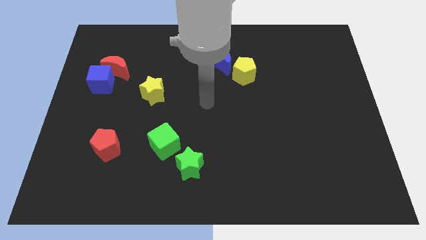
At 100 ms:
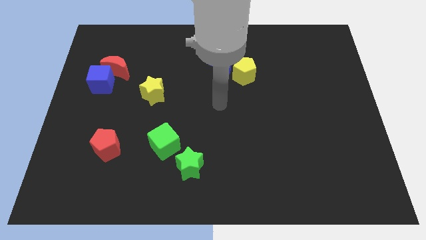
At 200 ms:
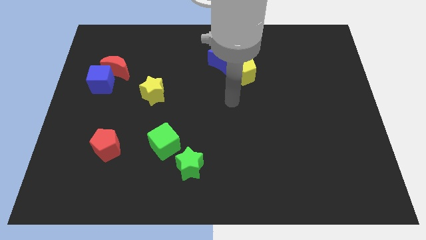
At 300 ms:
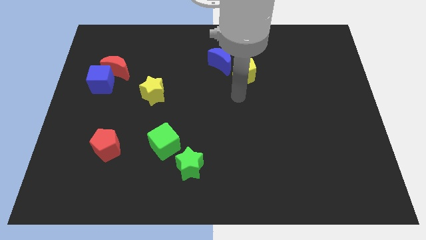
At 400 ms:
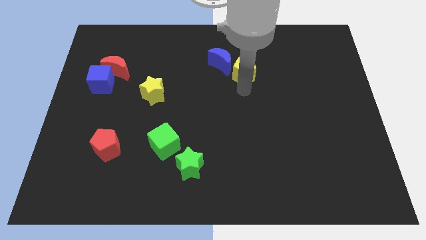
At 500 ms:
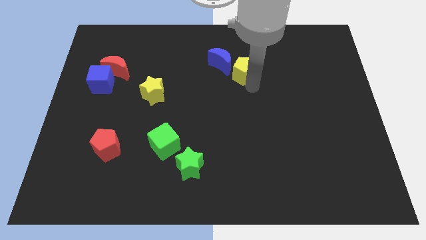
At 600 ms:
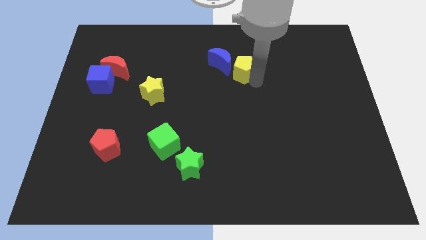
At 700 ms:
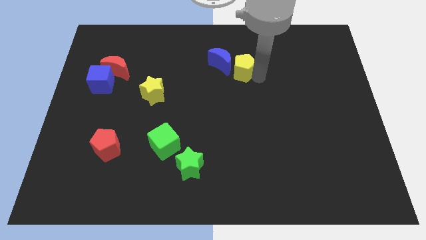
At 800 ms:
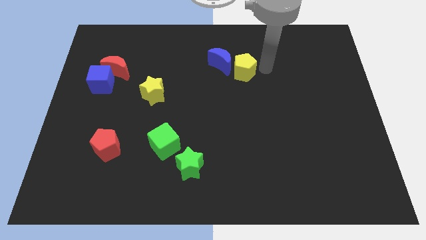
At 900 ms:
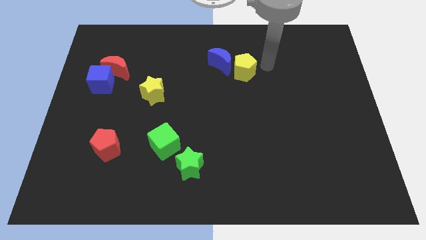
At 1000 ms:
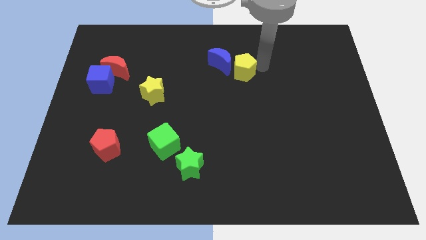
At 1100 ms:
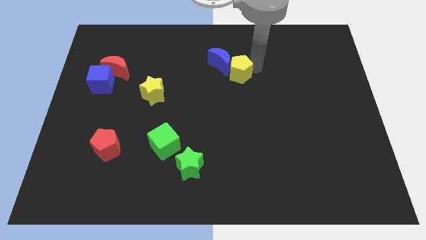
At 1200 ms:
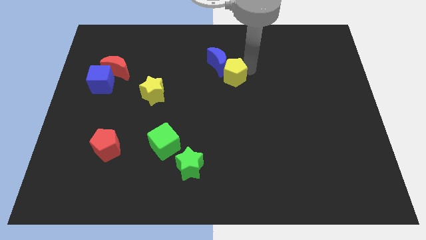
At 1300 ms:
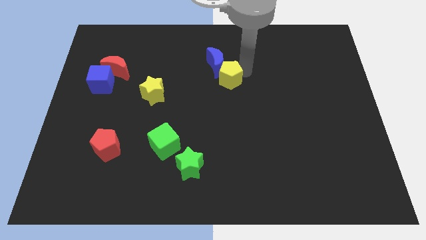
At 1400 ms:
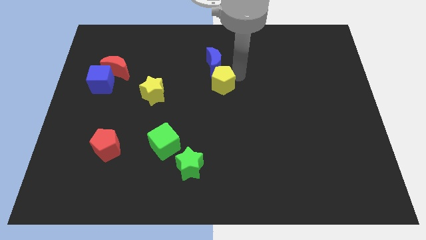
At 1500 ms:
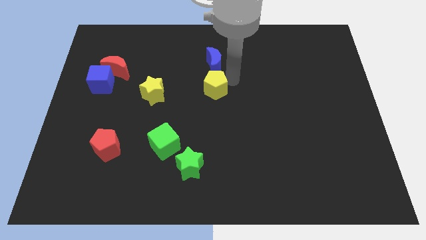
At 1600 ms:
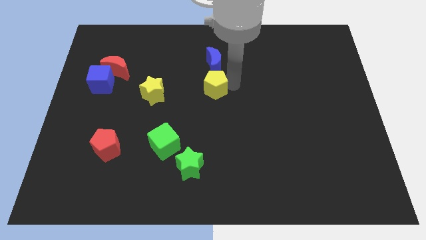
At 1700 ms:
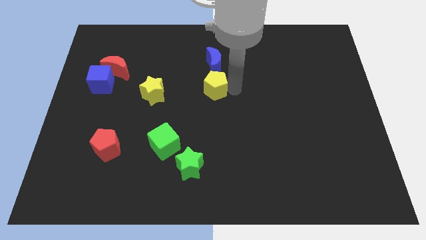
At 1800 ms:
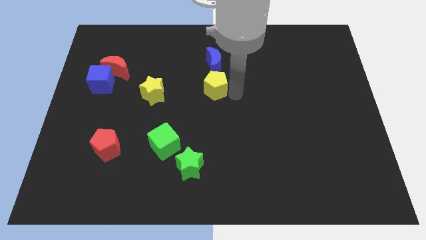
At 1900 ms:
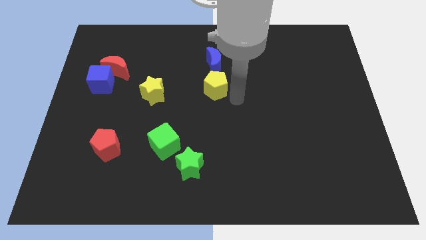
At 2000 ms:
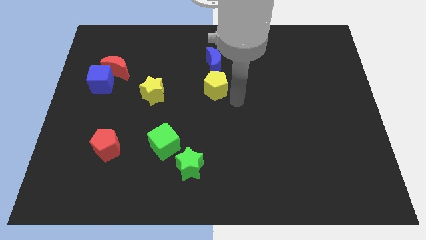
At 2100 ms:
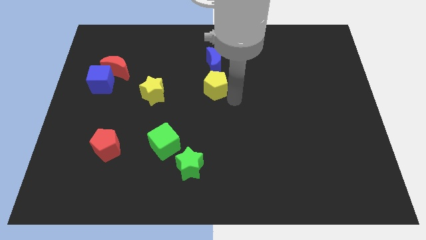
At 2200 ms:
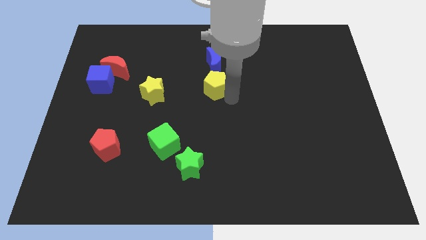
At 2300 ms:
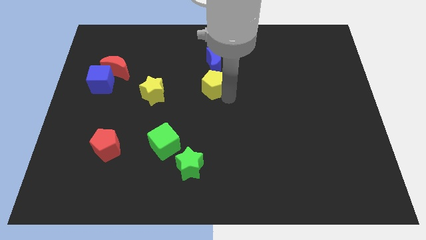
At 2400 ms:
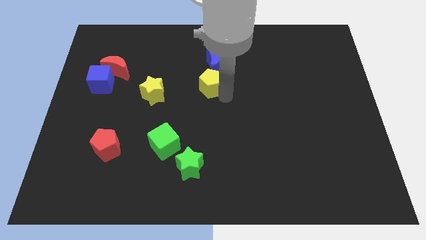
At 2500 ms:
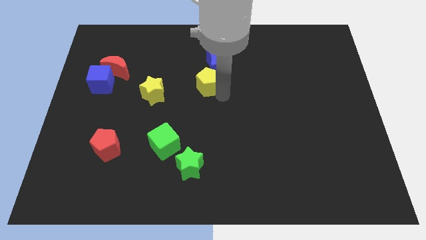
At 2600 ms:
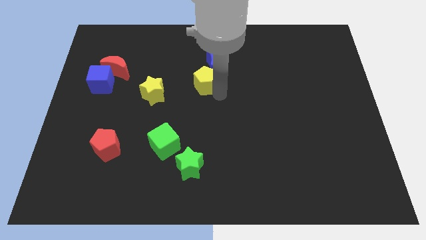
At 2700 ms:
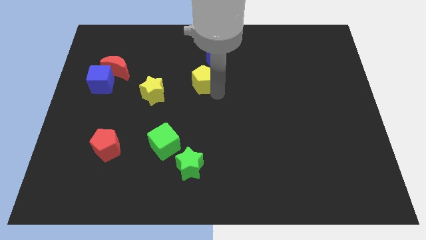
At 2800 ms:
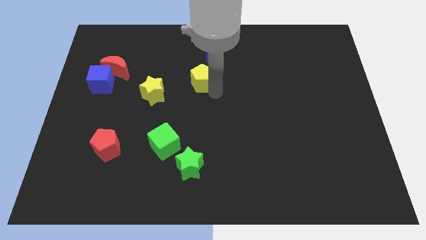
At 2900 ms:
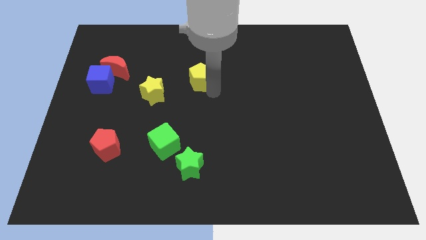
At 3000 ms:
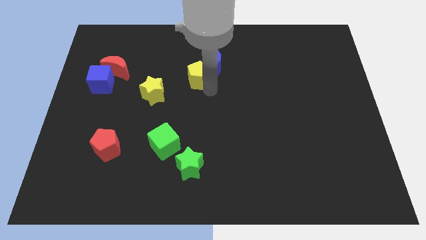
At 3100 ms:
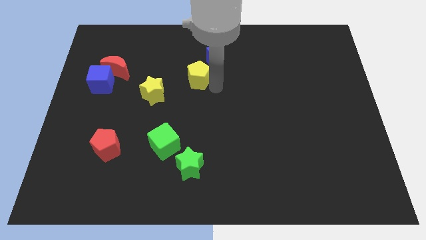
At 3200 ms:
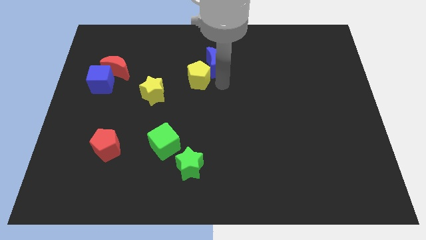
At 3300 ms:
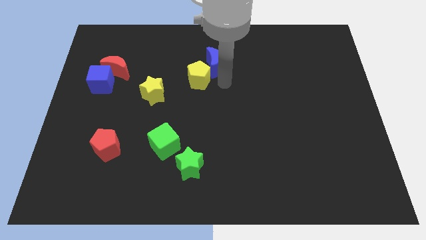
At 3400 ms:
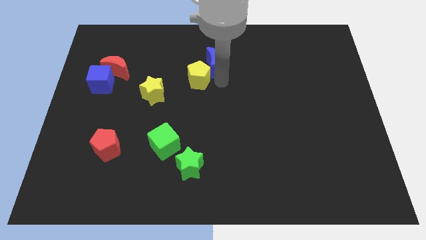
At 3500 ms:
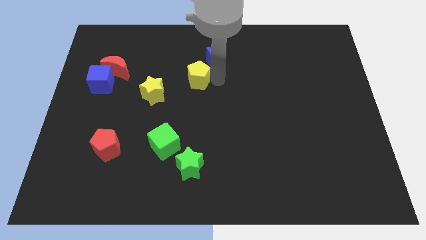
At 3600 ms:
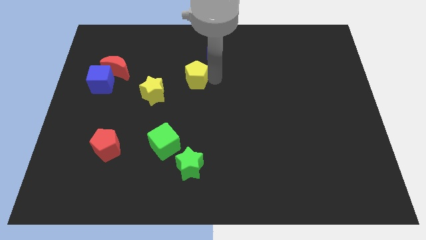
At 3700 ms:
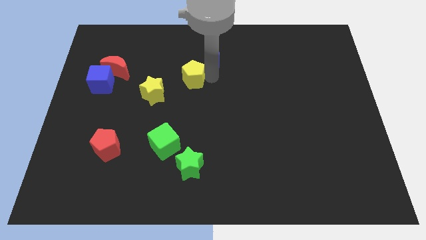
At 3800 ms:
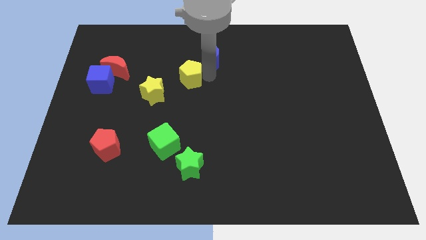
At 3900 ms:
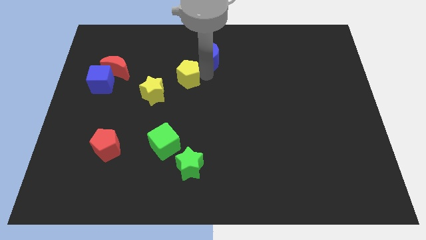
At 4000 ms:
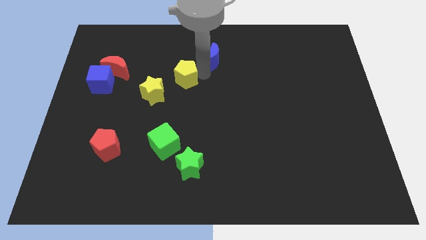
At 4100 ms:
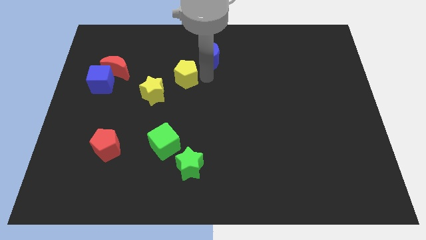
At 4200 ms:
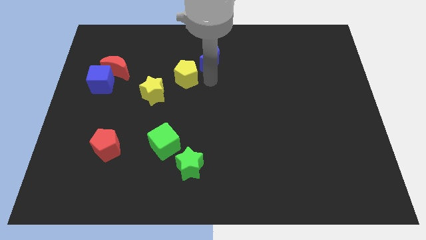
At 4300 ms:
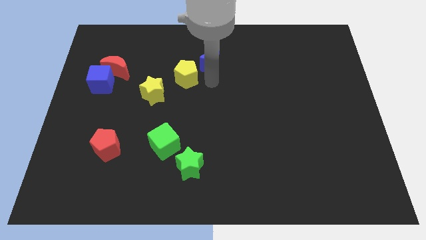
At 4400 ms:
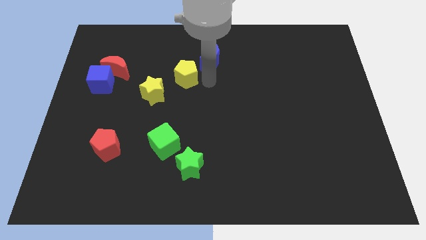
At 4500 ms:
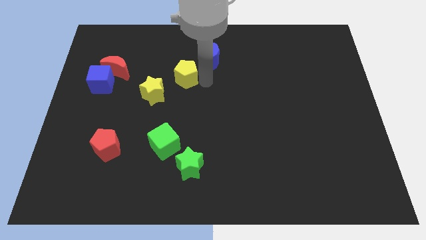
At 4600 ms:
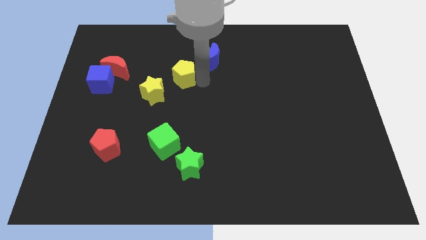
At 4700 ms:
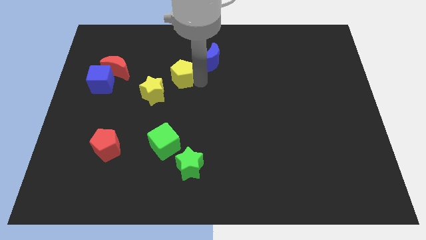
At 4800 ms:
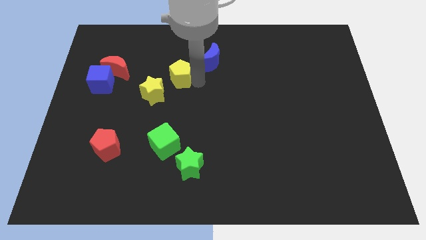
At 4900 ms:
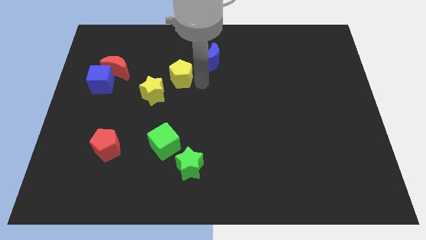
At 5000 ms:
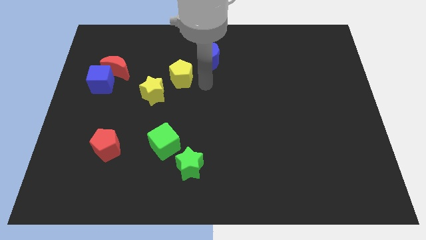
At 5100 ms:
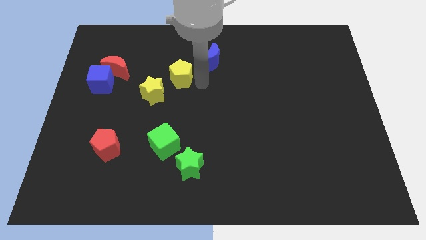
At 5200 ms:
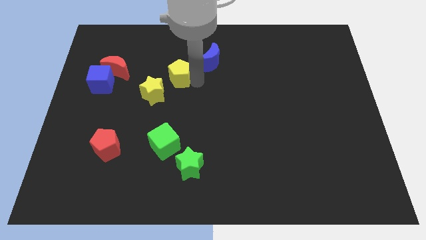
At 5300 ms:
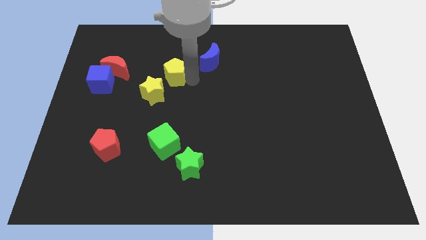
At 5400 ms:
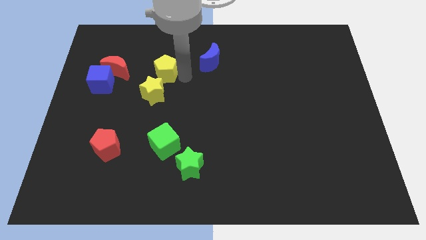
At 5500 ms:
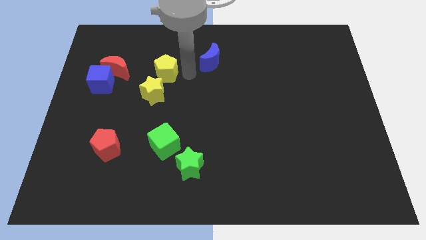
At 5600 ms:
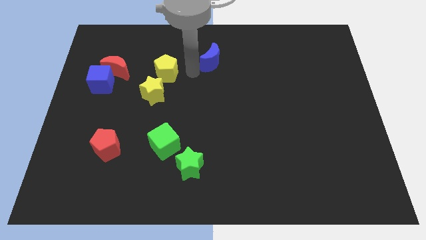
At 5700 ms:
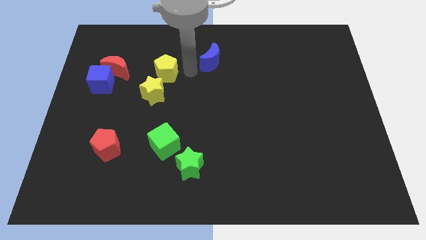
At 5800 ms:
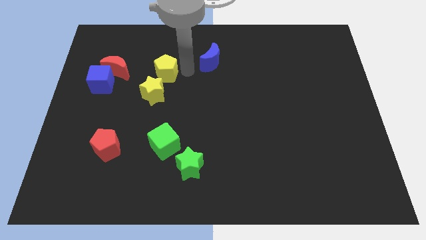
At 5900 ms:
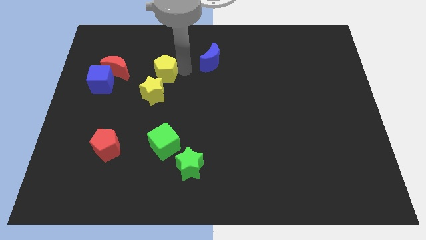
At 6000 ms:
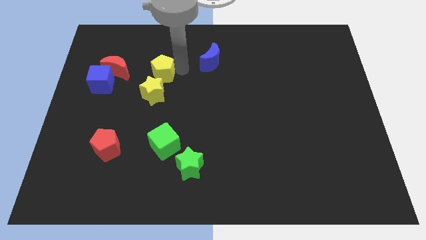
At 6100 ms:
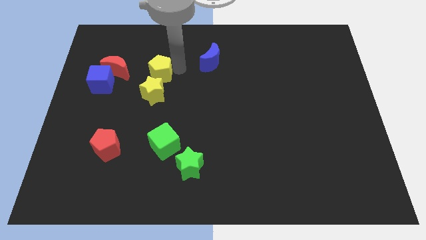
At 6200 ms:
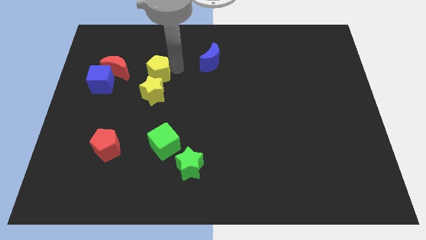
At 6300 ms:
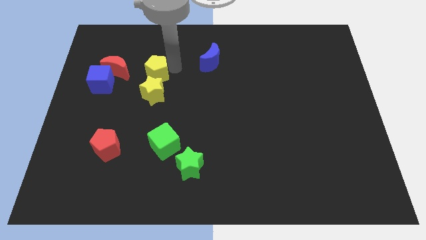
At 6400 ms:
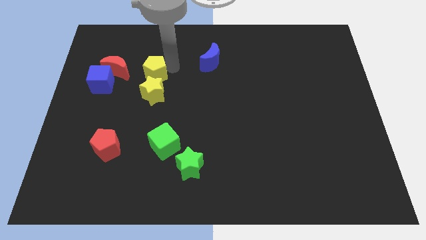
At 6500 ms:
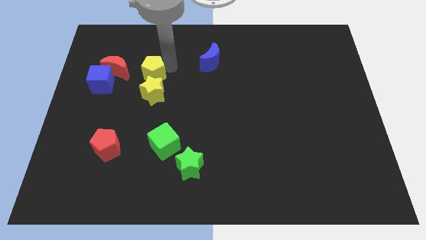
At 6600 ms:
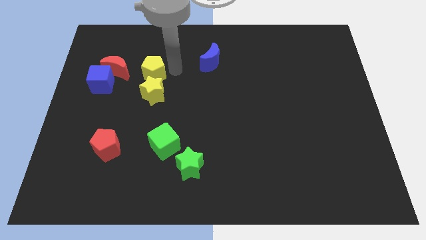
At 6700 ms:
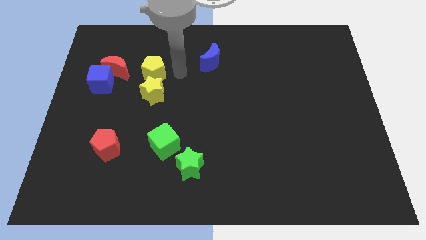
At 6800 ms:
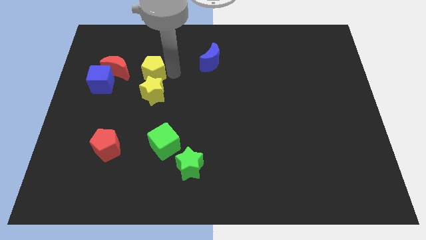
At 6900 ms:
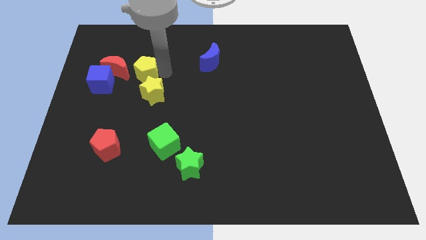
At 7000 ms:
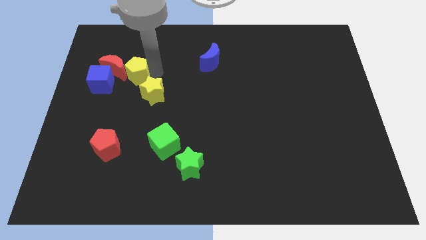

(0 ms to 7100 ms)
move the yellow pentagon close to the red moon
